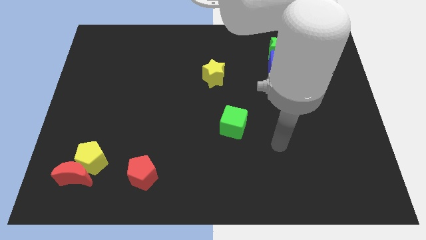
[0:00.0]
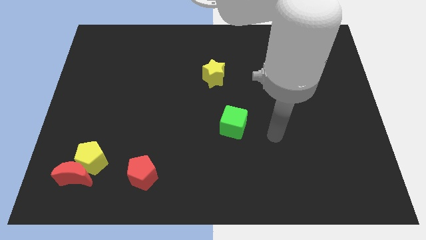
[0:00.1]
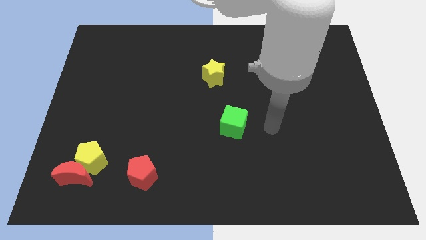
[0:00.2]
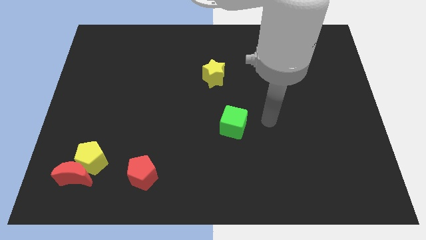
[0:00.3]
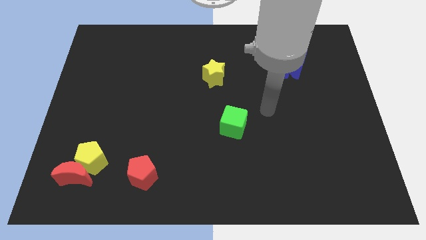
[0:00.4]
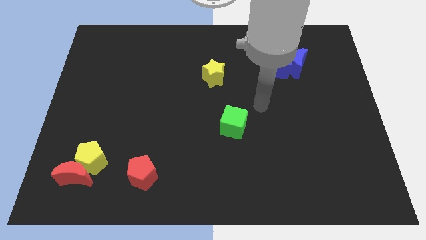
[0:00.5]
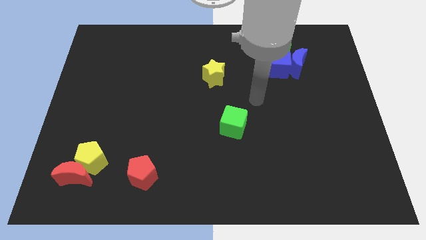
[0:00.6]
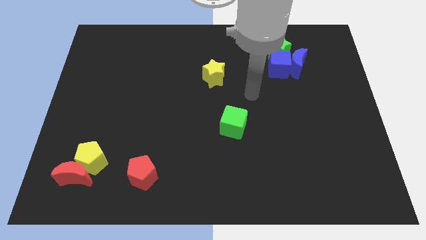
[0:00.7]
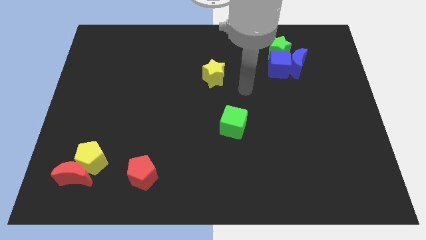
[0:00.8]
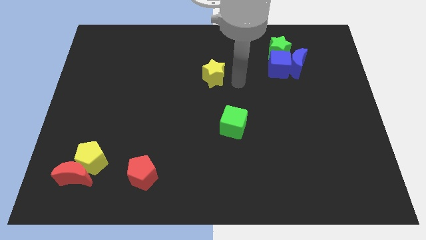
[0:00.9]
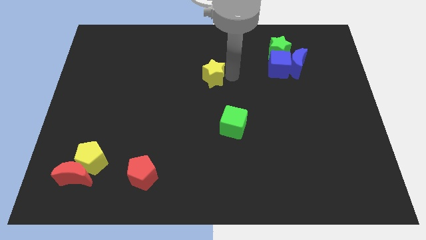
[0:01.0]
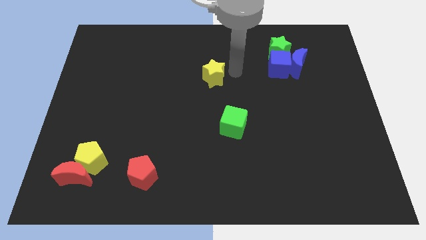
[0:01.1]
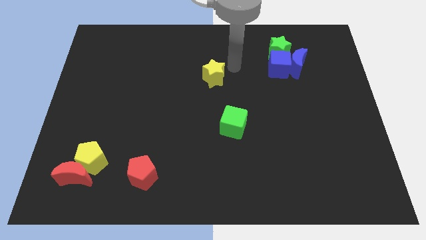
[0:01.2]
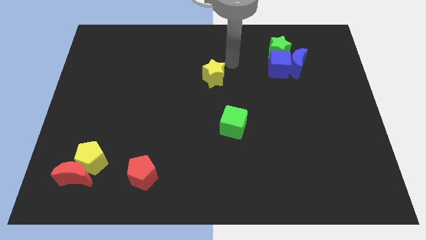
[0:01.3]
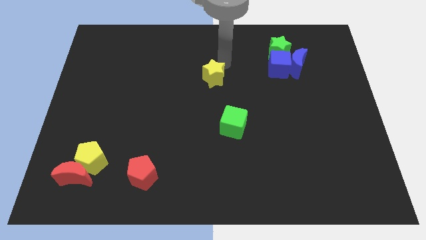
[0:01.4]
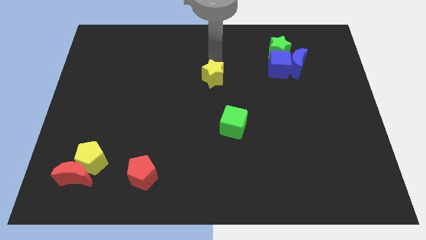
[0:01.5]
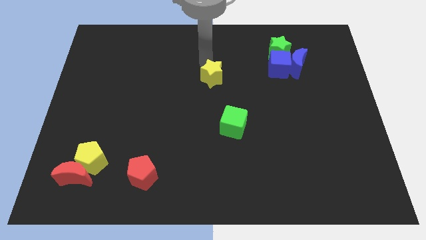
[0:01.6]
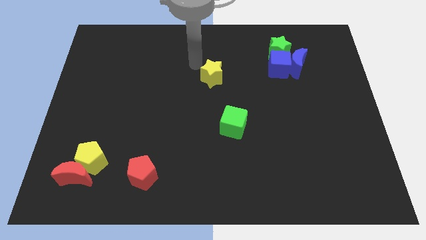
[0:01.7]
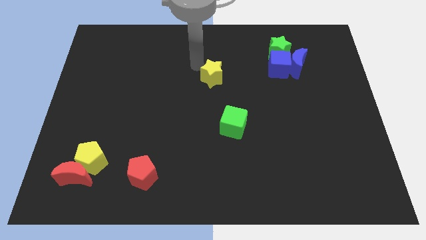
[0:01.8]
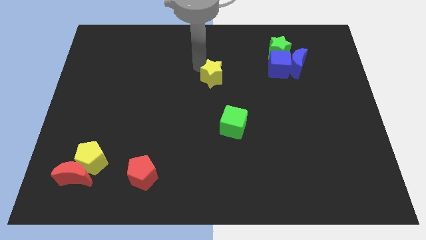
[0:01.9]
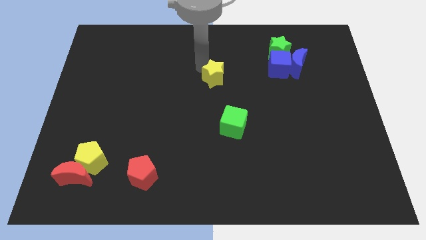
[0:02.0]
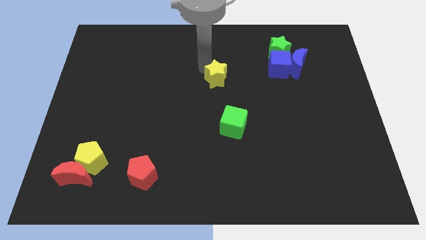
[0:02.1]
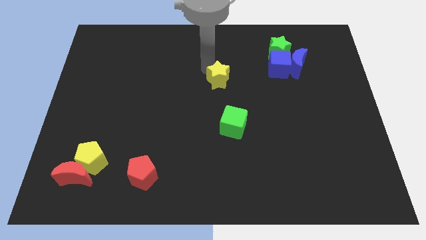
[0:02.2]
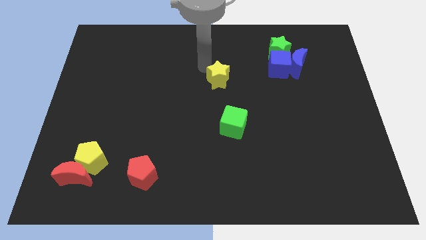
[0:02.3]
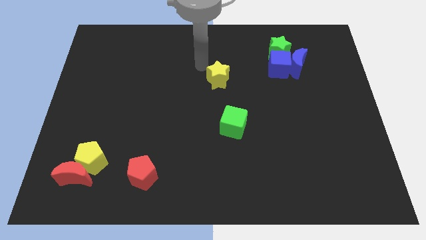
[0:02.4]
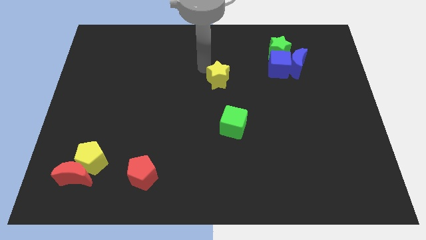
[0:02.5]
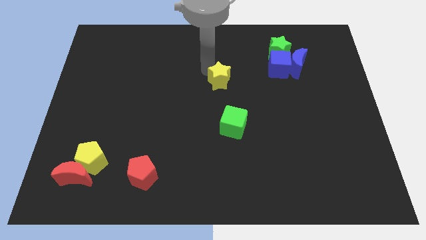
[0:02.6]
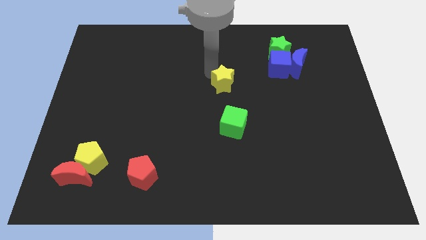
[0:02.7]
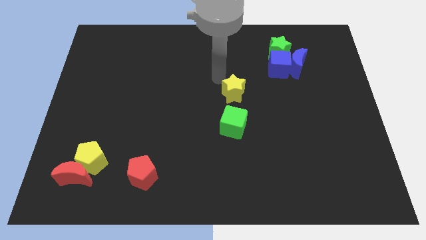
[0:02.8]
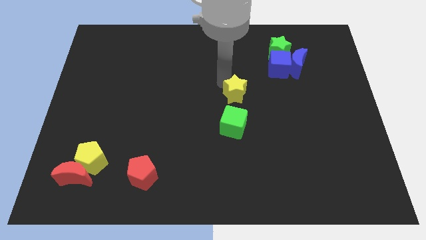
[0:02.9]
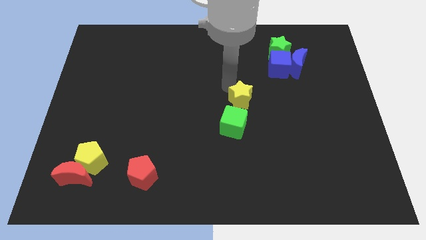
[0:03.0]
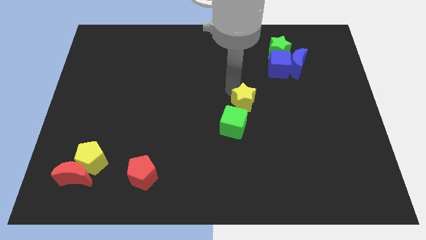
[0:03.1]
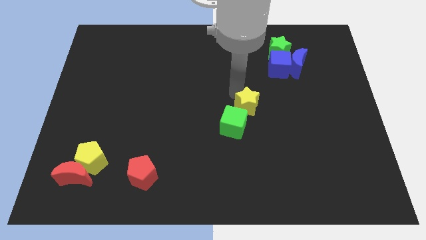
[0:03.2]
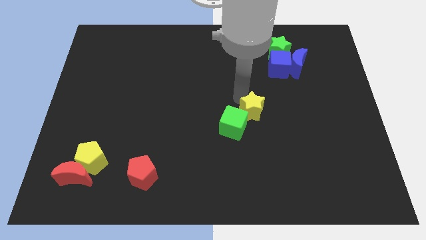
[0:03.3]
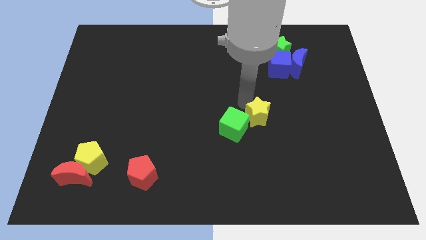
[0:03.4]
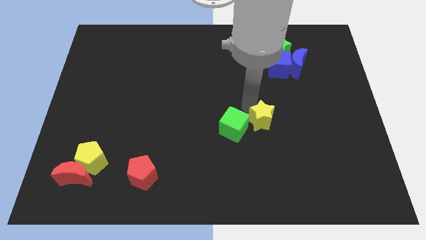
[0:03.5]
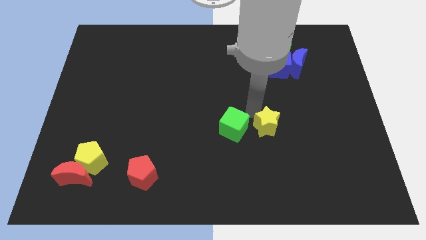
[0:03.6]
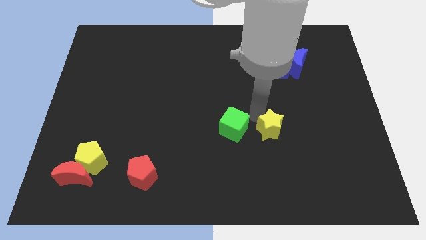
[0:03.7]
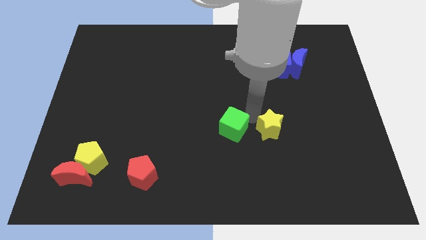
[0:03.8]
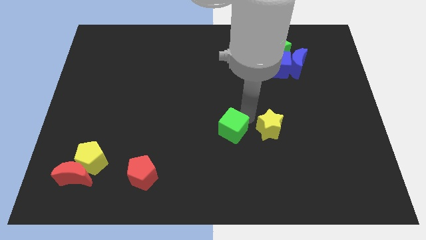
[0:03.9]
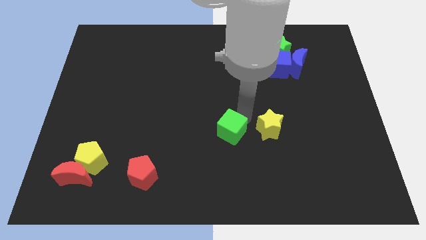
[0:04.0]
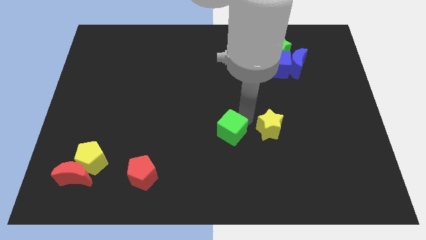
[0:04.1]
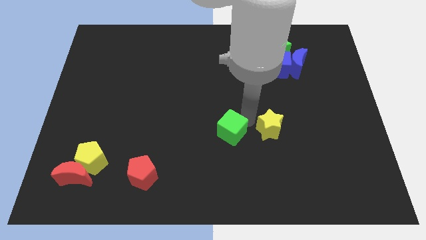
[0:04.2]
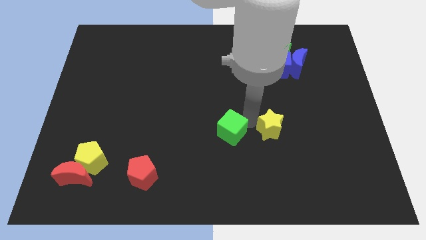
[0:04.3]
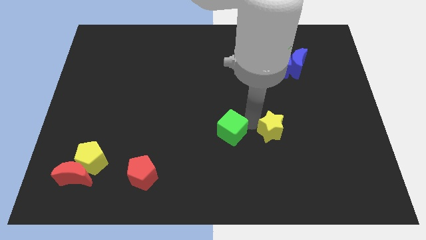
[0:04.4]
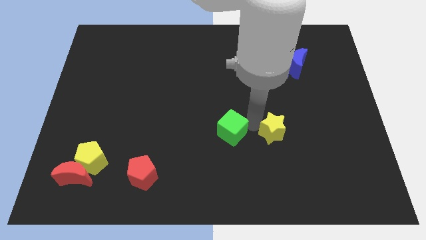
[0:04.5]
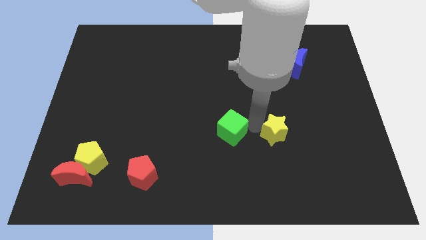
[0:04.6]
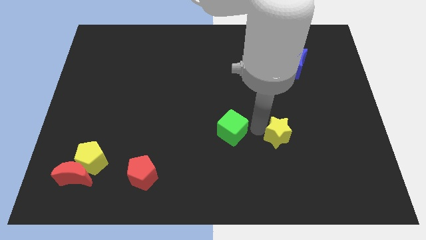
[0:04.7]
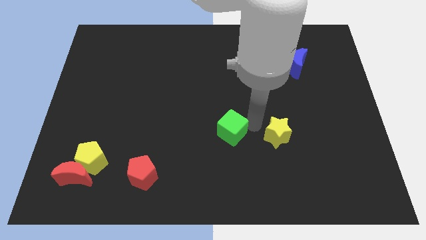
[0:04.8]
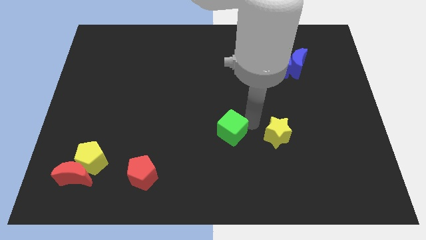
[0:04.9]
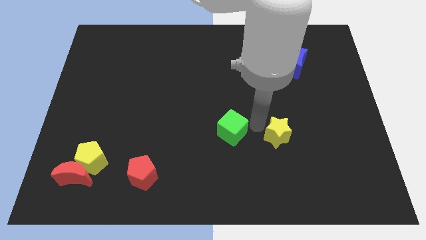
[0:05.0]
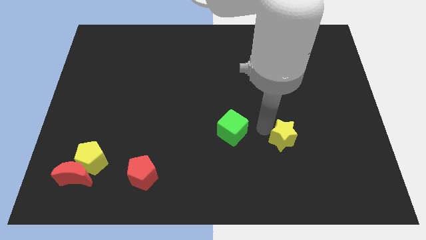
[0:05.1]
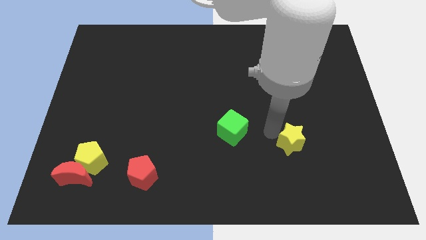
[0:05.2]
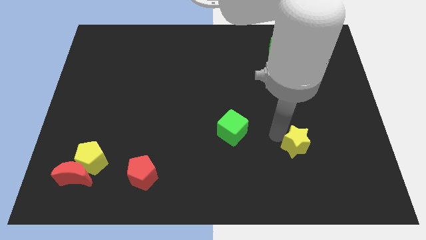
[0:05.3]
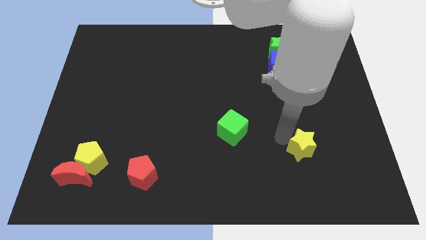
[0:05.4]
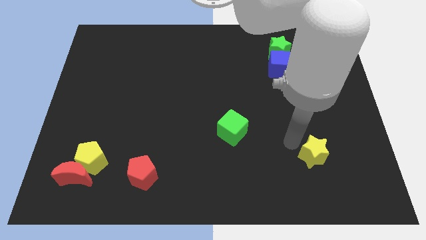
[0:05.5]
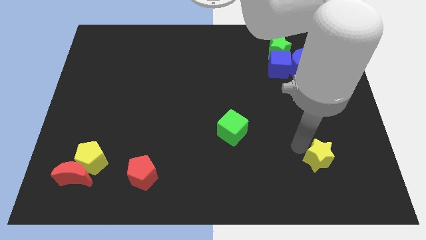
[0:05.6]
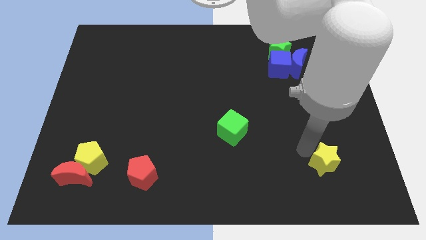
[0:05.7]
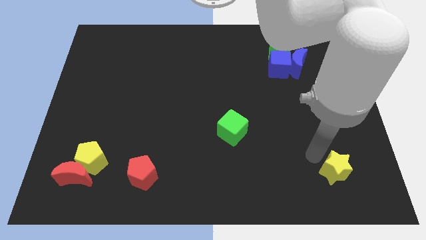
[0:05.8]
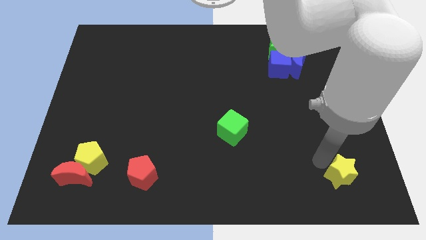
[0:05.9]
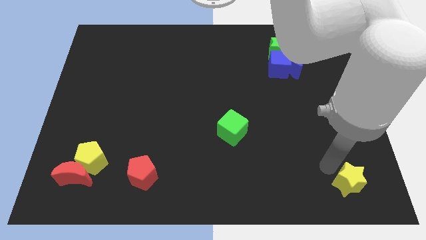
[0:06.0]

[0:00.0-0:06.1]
push the yellow star to the bottom right of the board
